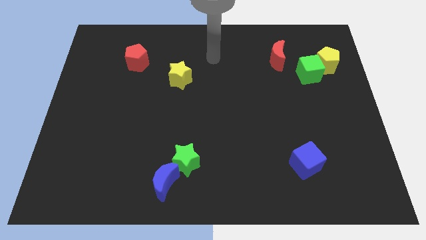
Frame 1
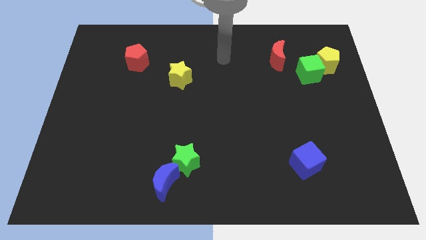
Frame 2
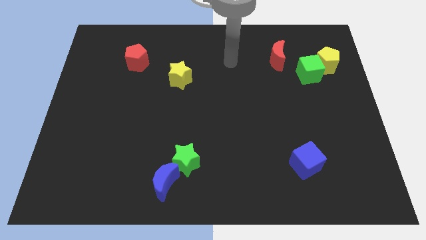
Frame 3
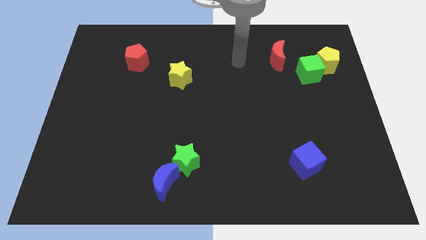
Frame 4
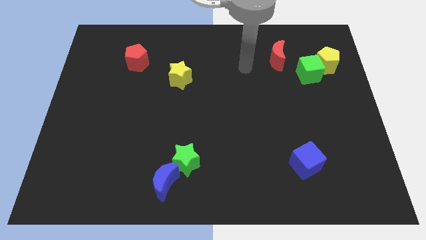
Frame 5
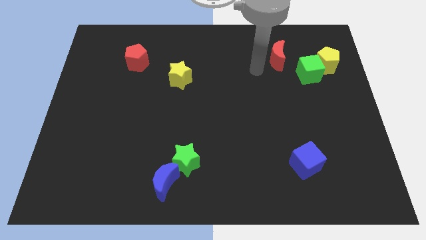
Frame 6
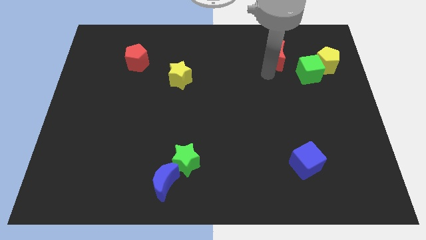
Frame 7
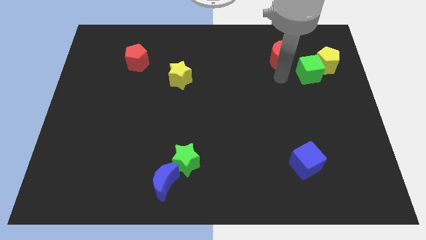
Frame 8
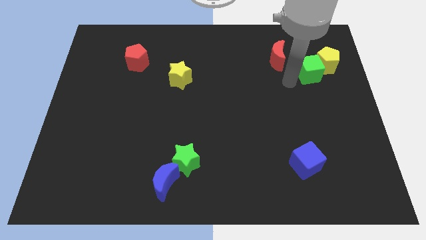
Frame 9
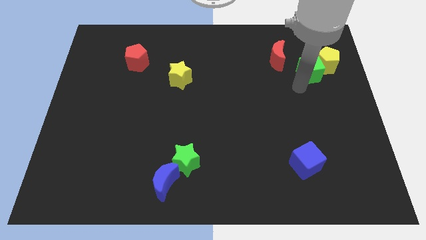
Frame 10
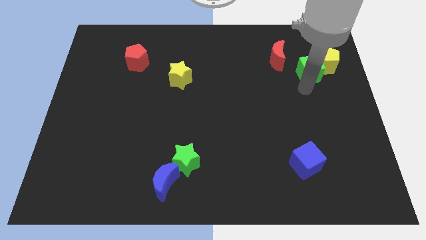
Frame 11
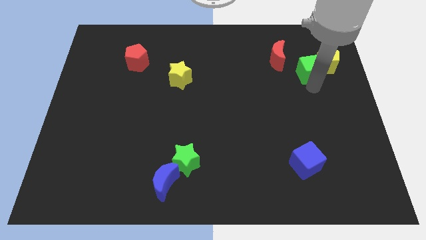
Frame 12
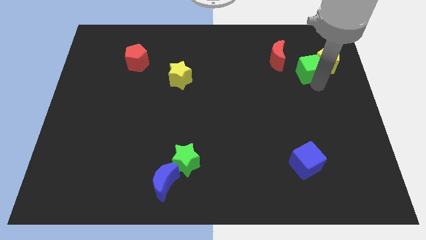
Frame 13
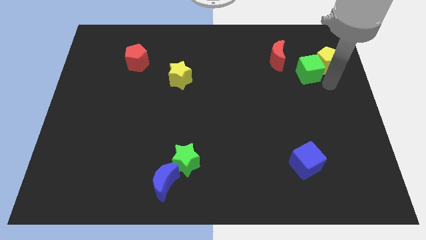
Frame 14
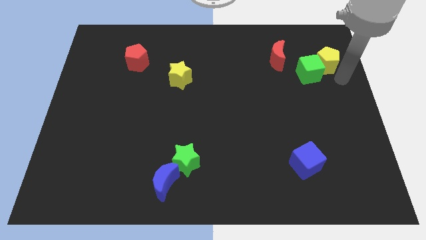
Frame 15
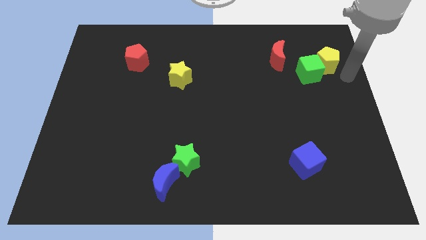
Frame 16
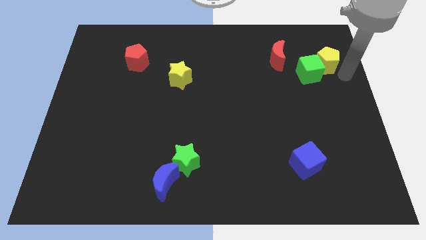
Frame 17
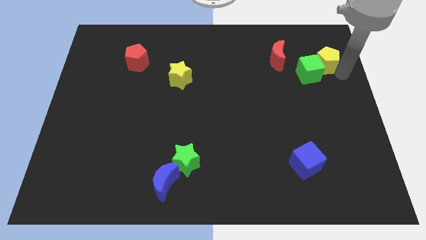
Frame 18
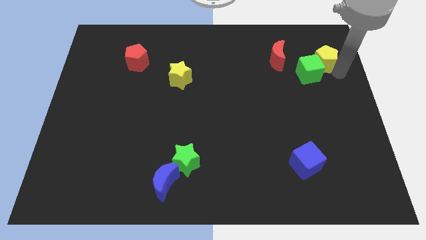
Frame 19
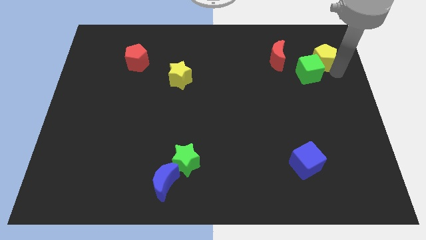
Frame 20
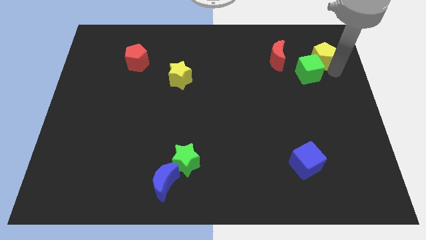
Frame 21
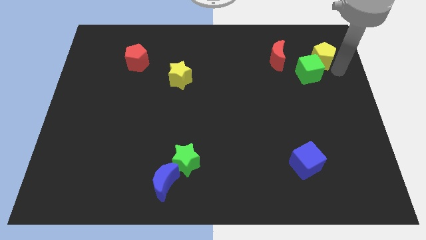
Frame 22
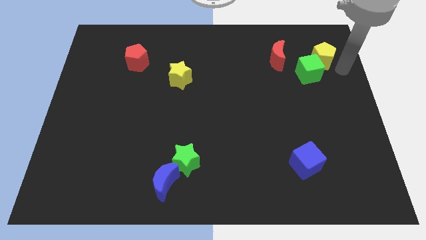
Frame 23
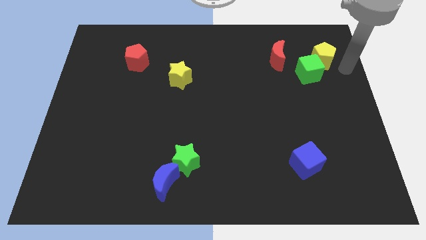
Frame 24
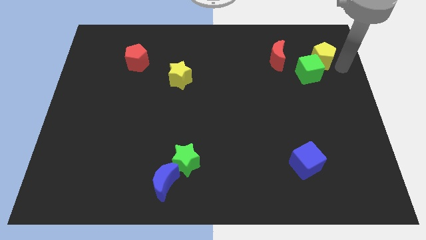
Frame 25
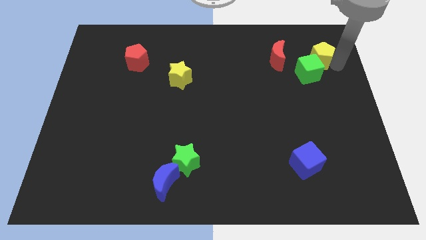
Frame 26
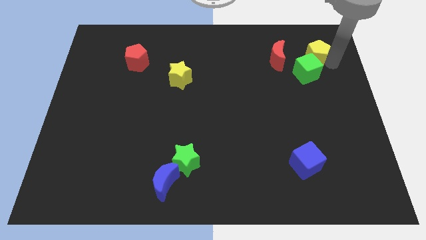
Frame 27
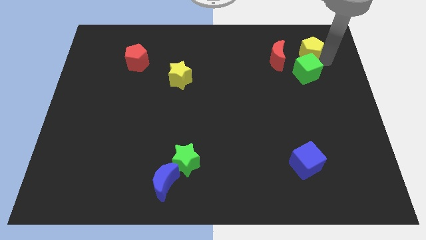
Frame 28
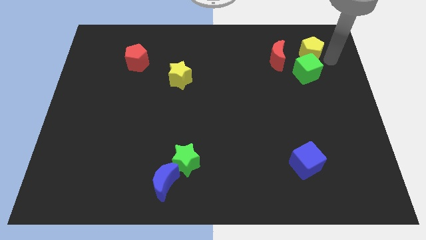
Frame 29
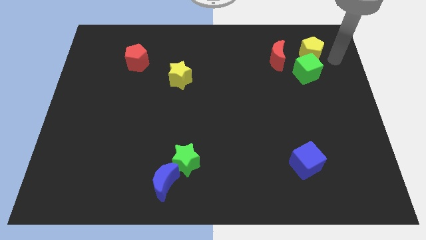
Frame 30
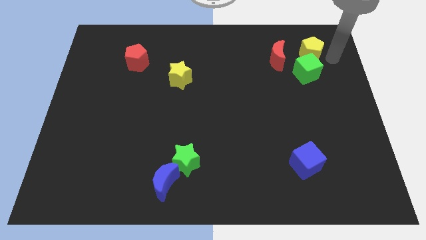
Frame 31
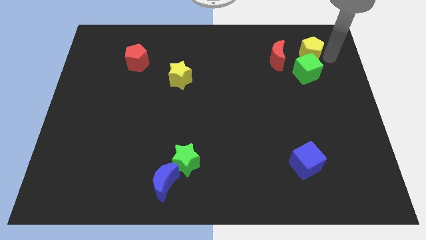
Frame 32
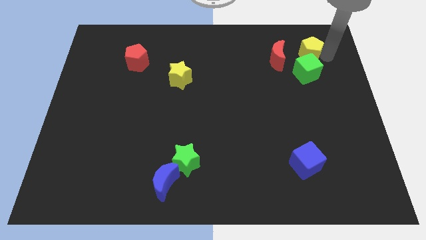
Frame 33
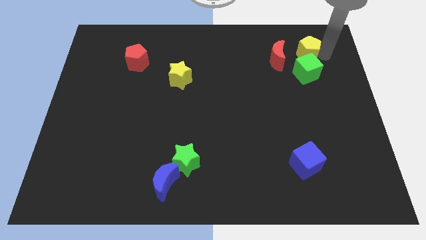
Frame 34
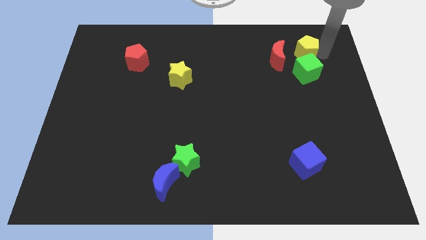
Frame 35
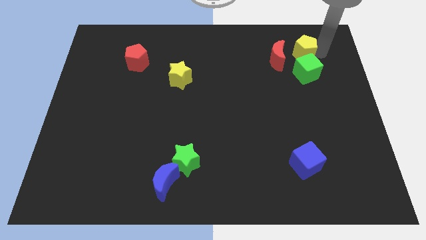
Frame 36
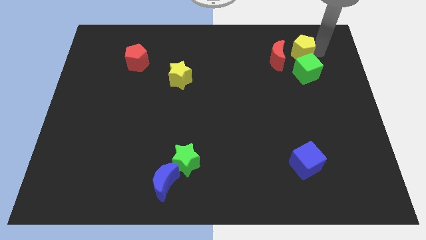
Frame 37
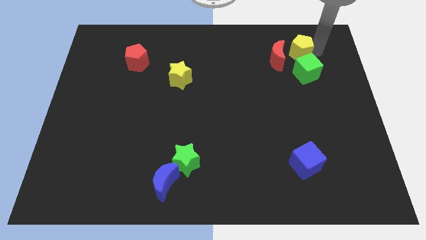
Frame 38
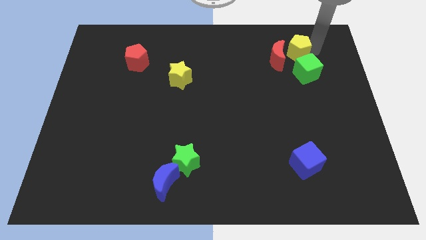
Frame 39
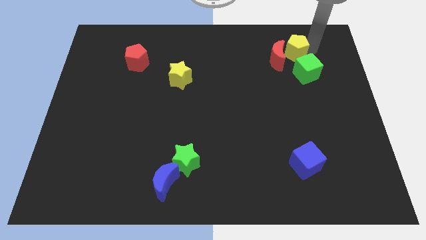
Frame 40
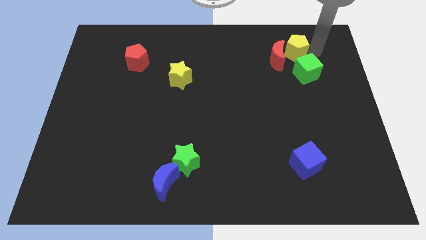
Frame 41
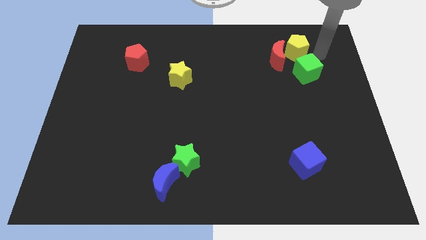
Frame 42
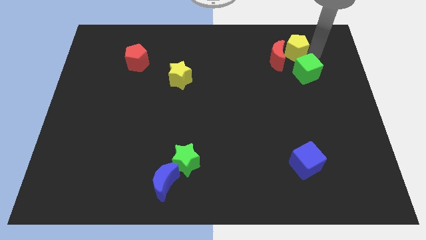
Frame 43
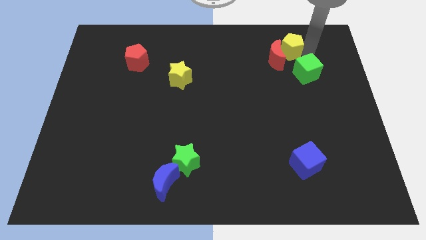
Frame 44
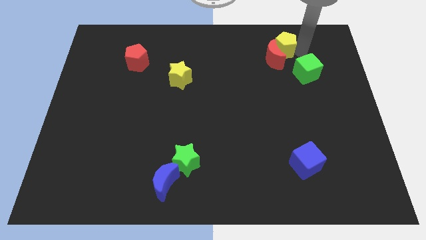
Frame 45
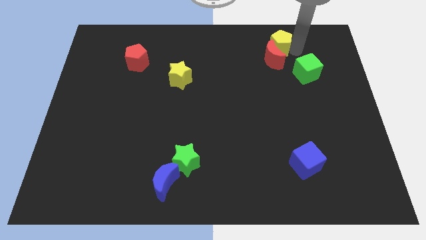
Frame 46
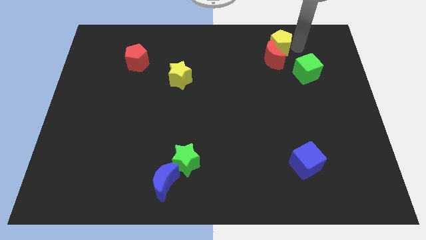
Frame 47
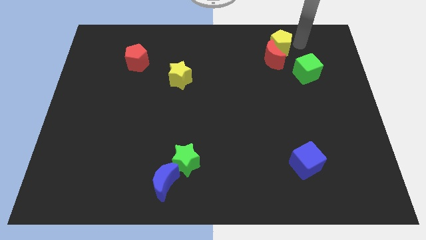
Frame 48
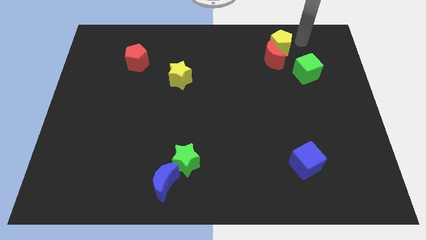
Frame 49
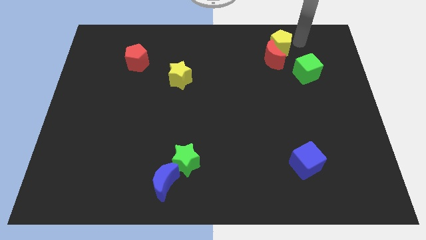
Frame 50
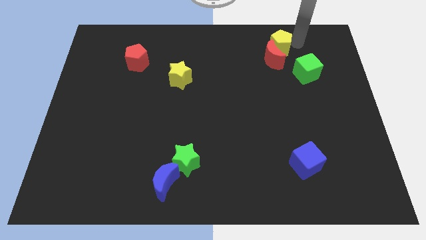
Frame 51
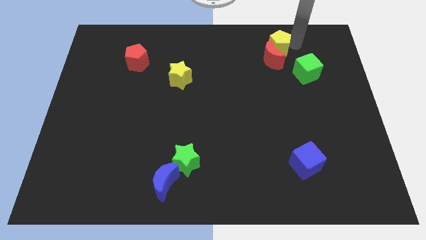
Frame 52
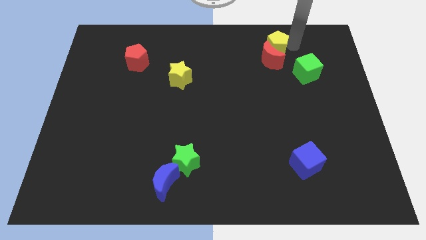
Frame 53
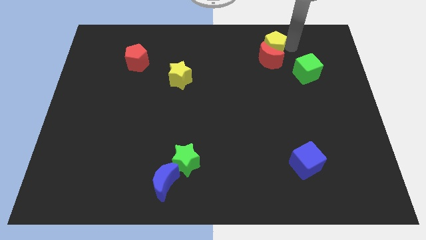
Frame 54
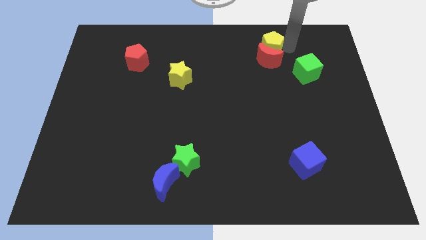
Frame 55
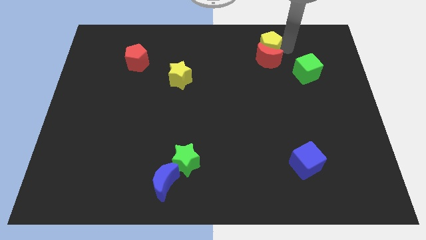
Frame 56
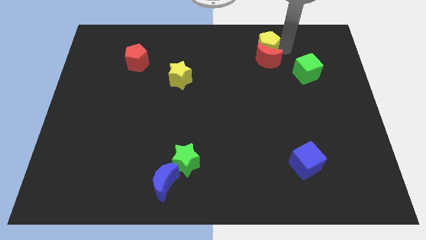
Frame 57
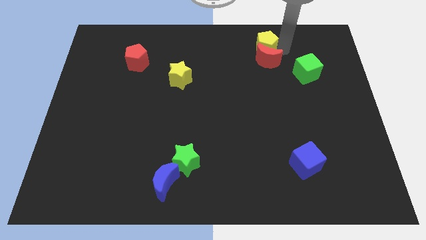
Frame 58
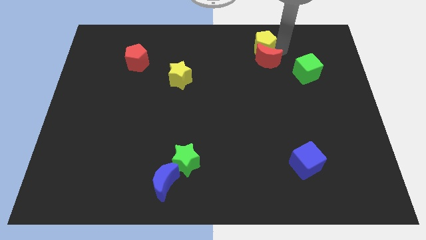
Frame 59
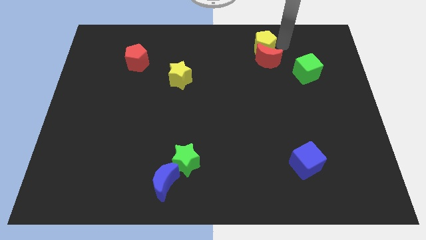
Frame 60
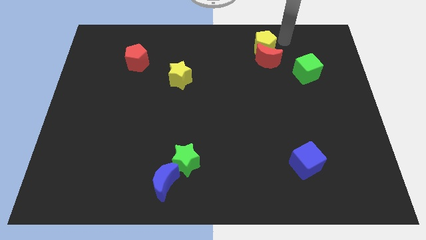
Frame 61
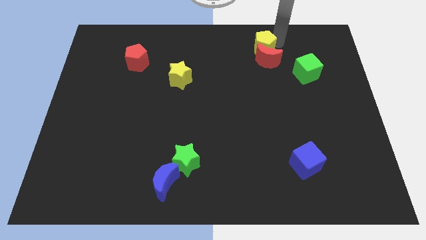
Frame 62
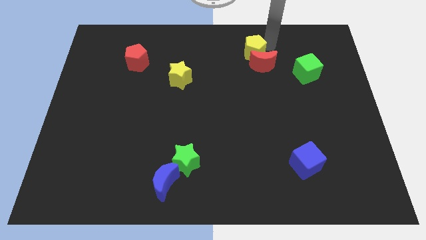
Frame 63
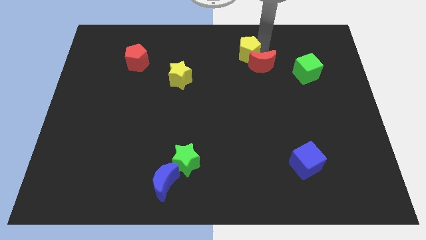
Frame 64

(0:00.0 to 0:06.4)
slide the yellow pentagon to the left side of the red moon

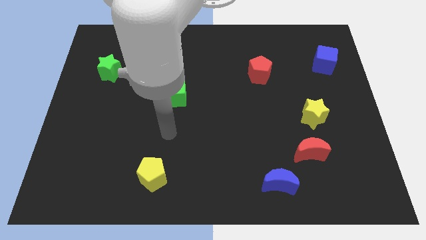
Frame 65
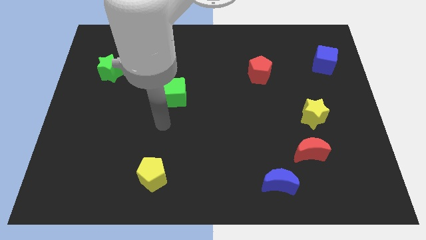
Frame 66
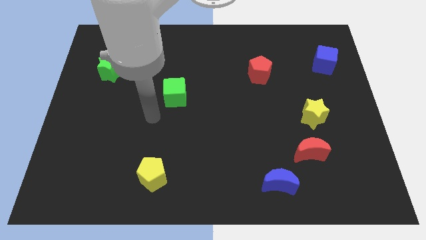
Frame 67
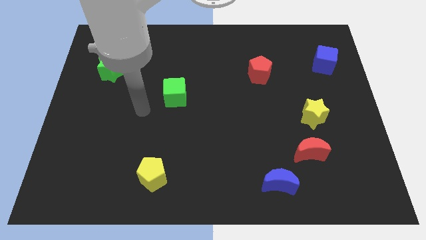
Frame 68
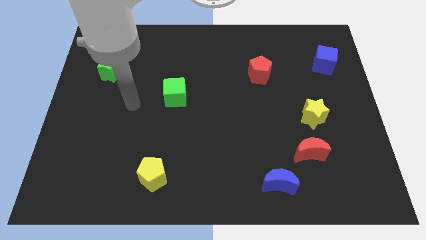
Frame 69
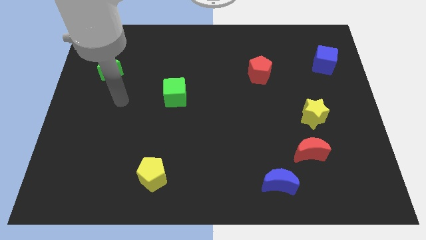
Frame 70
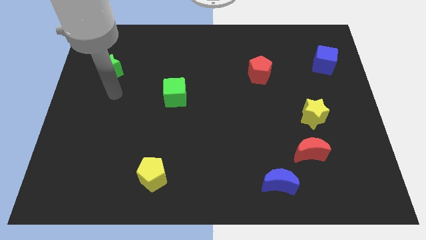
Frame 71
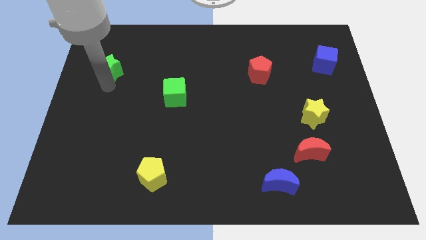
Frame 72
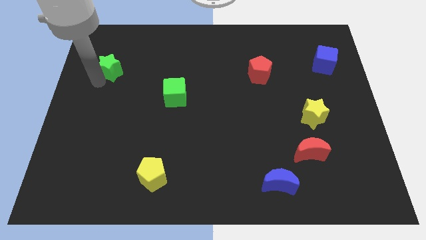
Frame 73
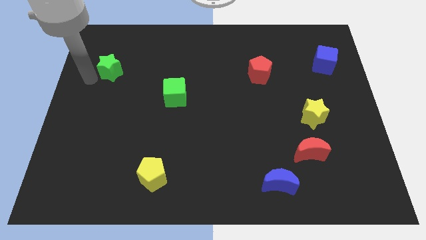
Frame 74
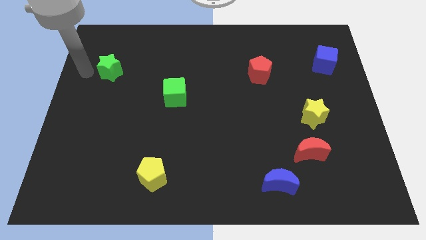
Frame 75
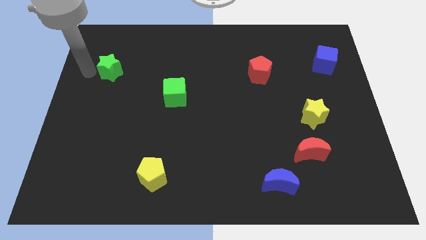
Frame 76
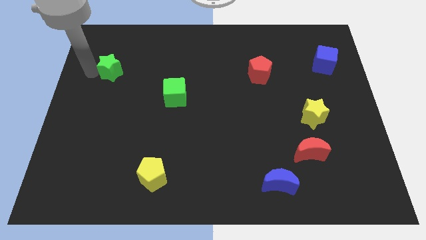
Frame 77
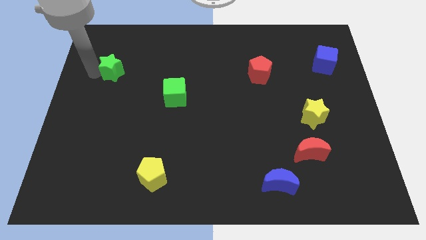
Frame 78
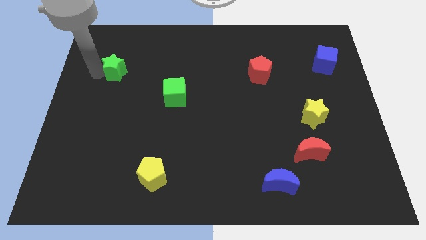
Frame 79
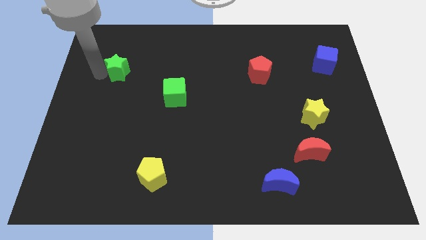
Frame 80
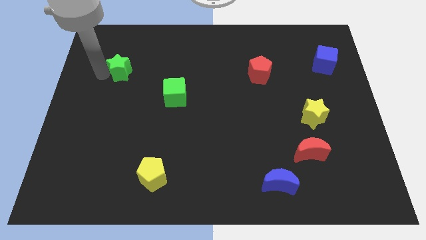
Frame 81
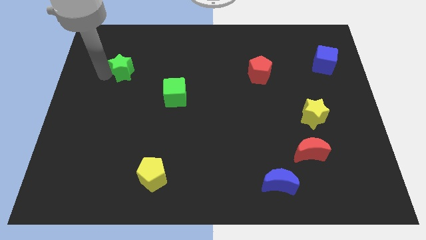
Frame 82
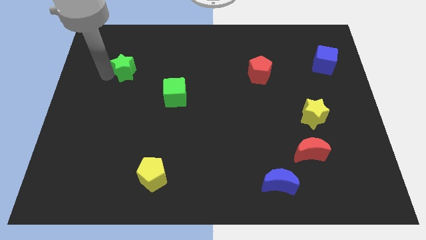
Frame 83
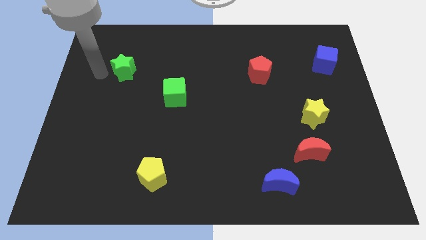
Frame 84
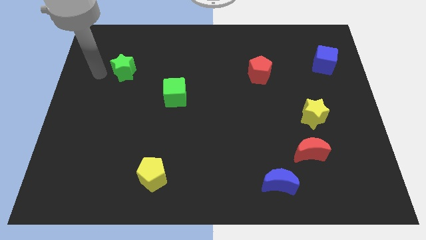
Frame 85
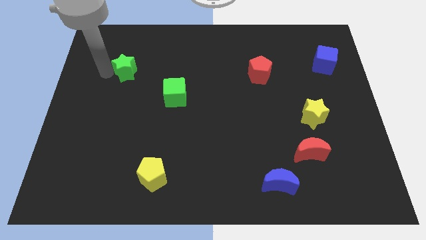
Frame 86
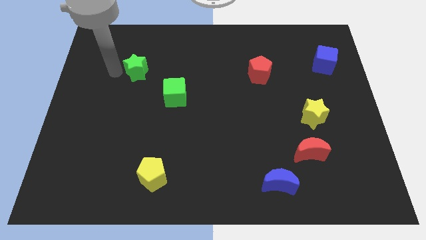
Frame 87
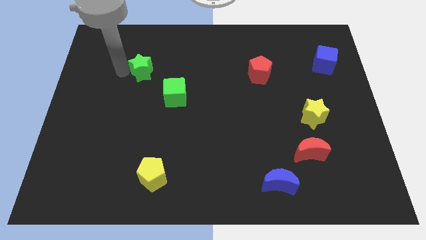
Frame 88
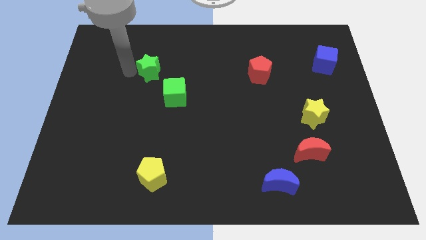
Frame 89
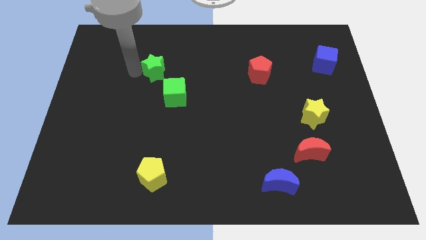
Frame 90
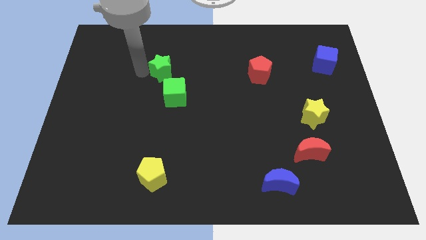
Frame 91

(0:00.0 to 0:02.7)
slide the green star above the green cube
